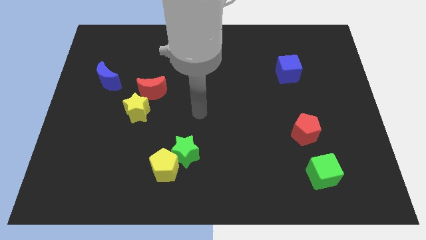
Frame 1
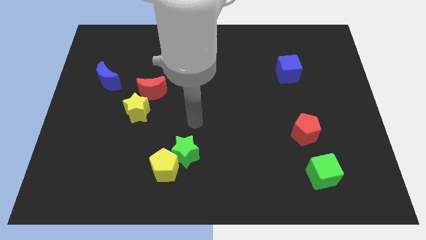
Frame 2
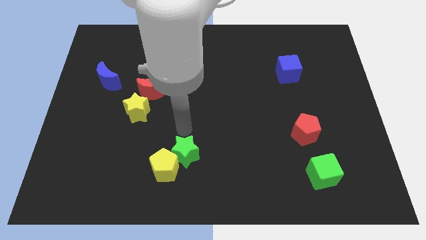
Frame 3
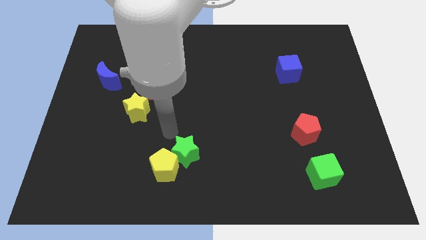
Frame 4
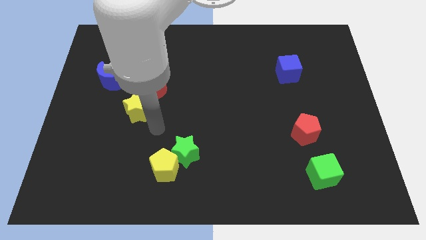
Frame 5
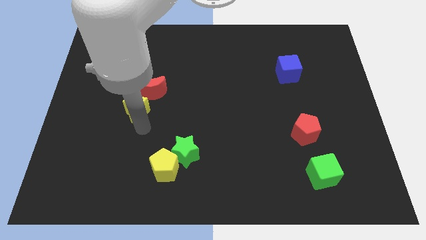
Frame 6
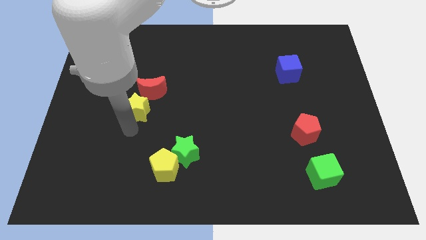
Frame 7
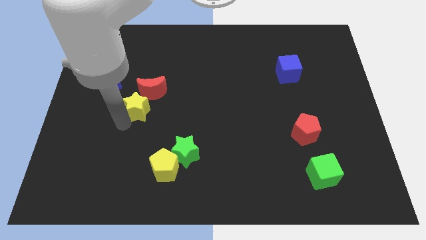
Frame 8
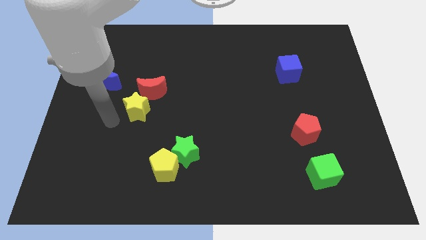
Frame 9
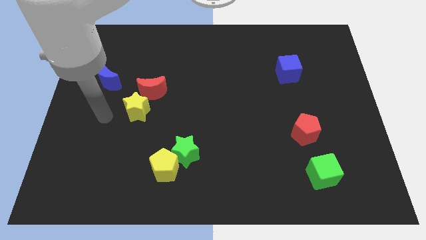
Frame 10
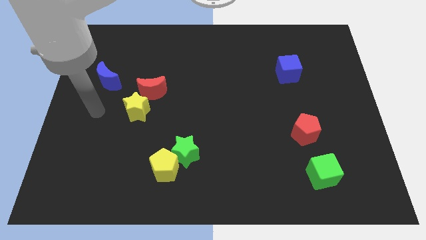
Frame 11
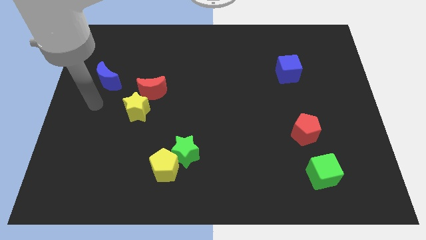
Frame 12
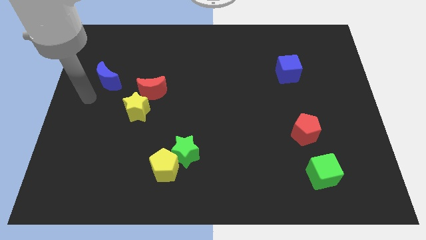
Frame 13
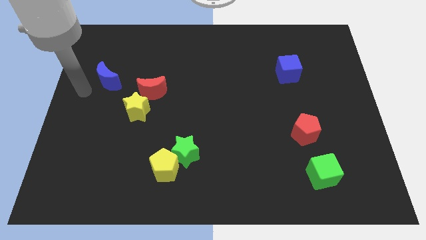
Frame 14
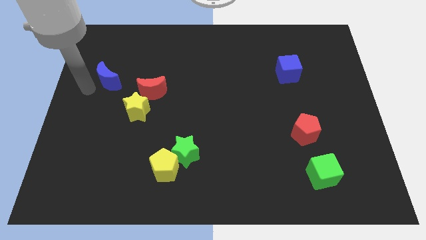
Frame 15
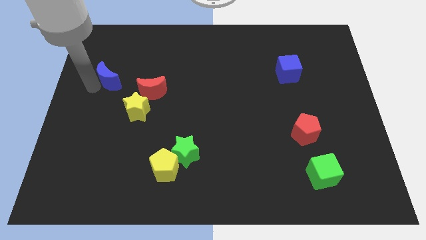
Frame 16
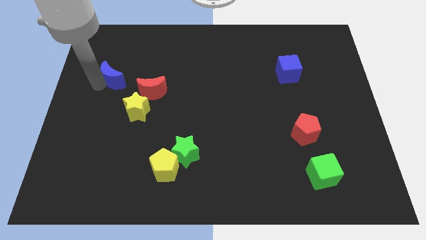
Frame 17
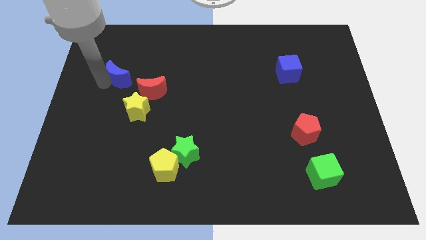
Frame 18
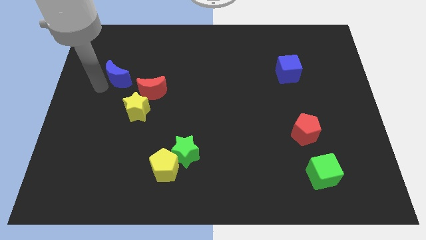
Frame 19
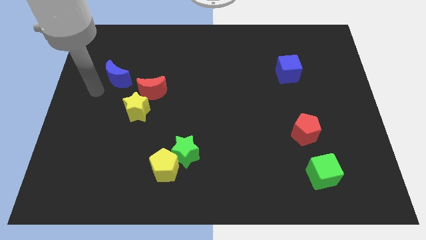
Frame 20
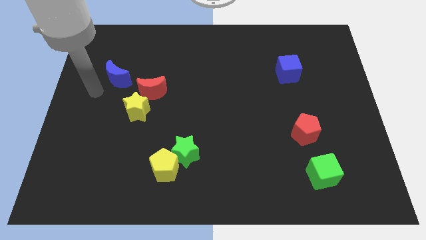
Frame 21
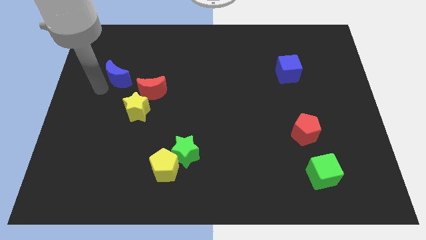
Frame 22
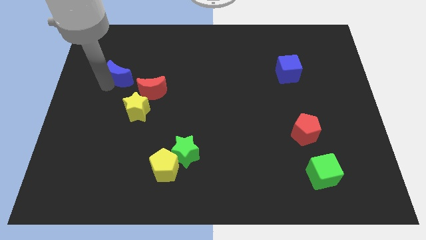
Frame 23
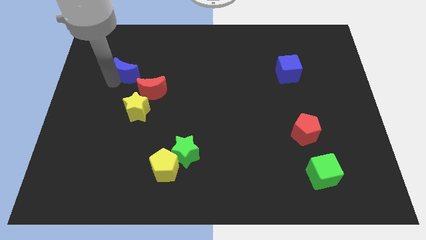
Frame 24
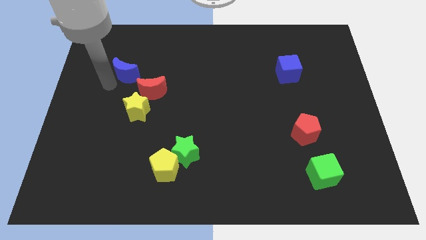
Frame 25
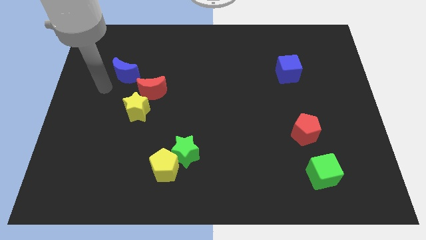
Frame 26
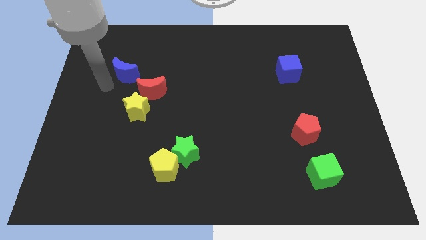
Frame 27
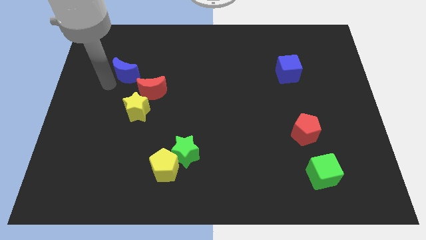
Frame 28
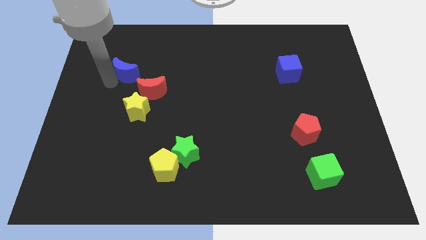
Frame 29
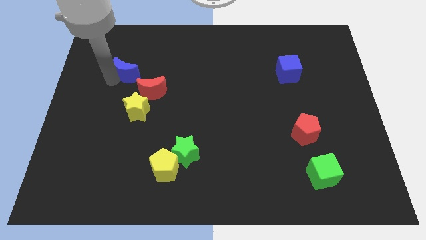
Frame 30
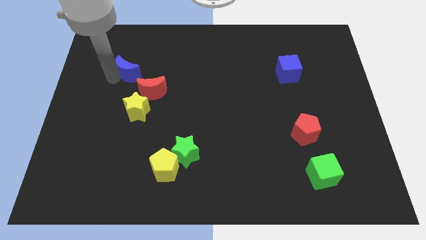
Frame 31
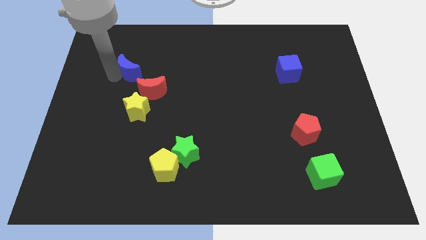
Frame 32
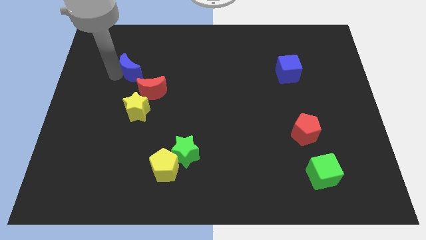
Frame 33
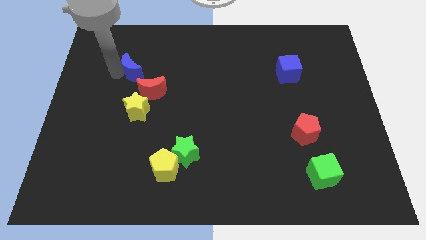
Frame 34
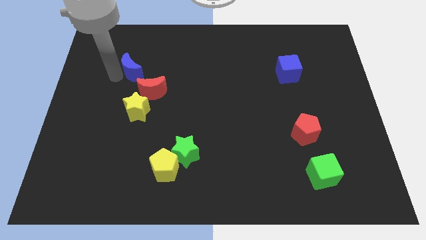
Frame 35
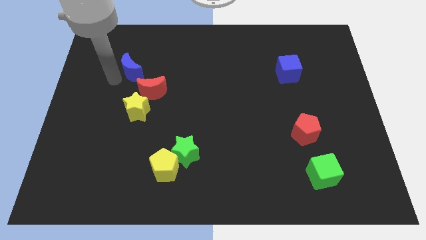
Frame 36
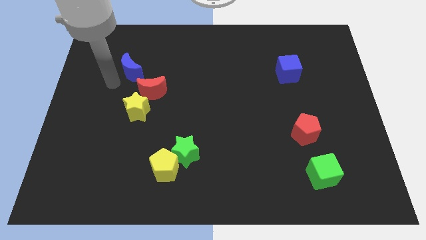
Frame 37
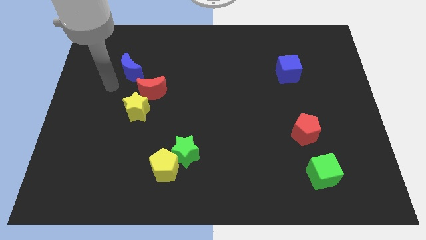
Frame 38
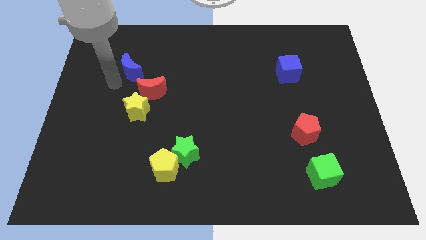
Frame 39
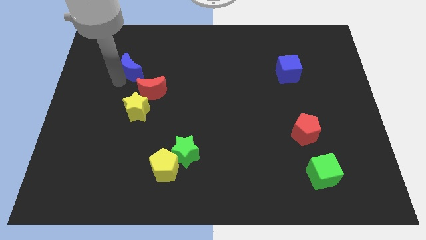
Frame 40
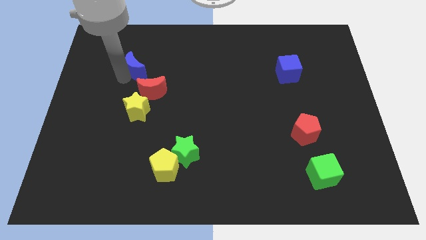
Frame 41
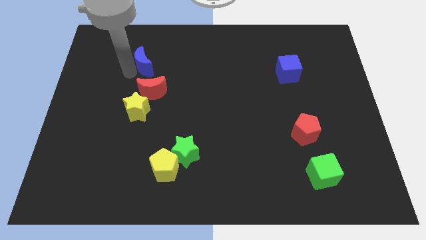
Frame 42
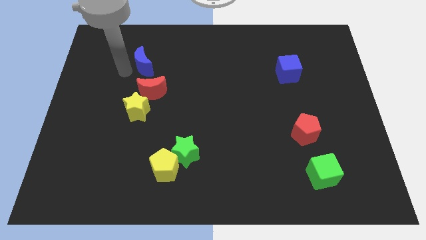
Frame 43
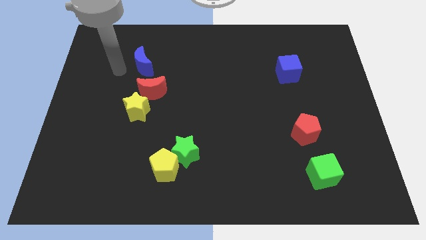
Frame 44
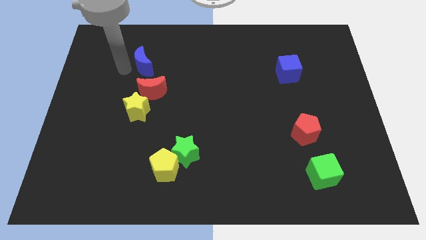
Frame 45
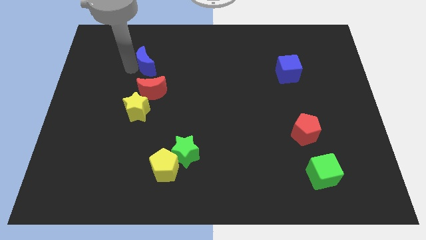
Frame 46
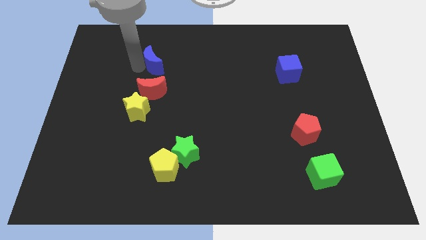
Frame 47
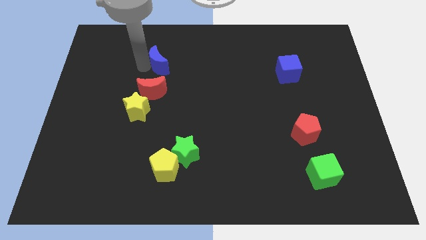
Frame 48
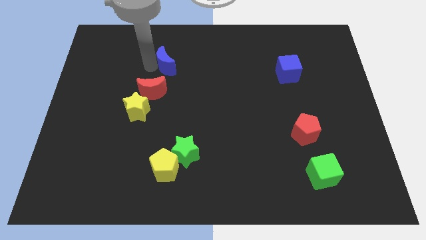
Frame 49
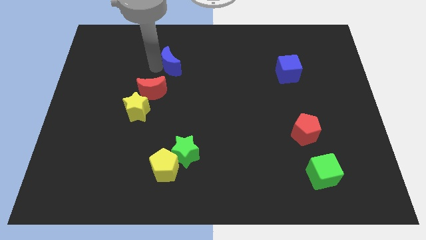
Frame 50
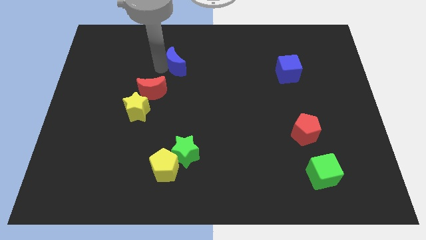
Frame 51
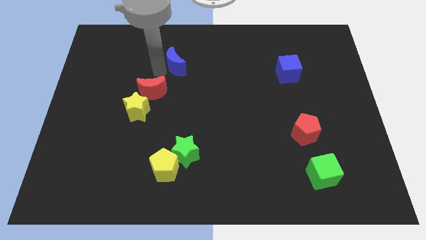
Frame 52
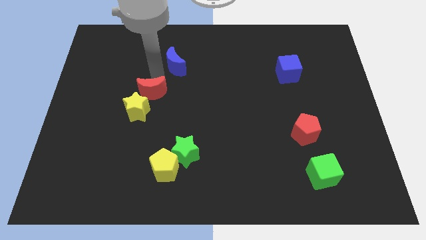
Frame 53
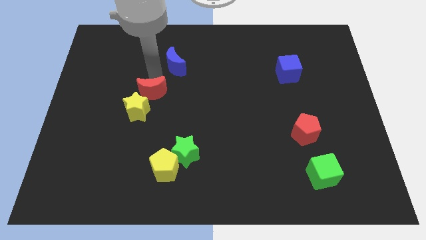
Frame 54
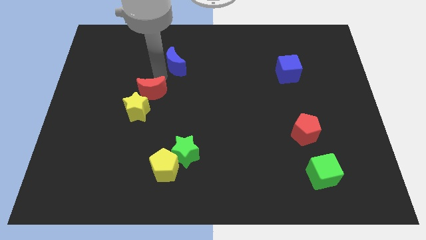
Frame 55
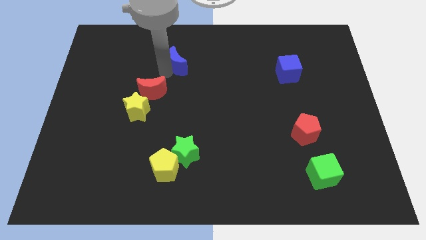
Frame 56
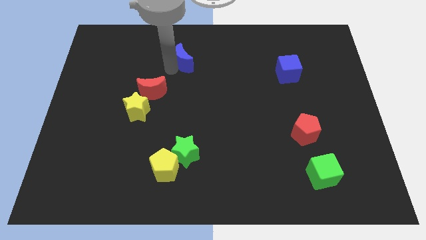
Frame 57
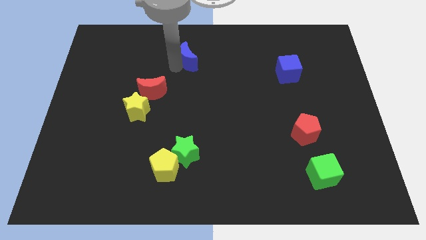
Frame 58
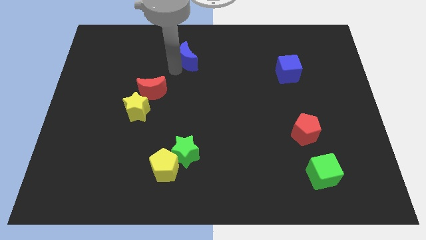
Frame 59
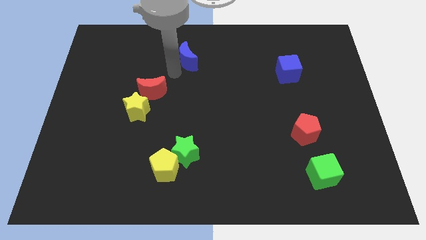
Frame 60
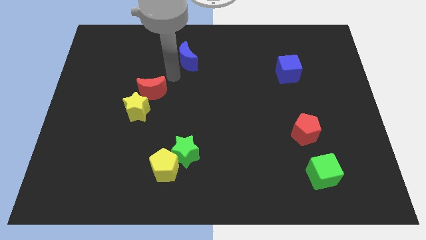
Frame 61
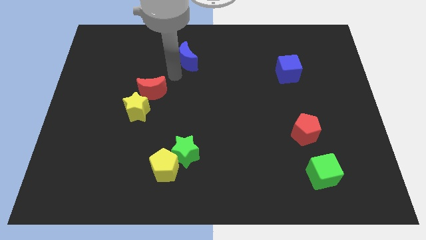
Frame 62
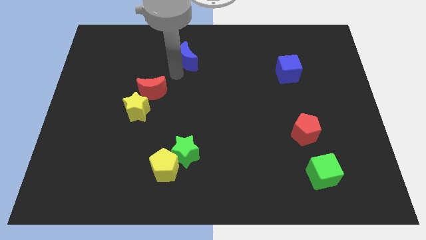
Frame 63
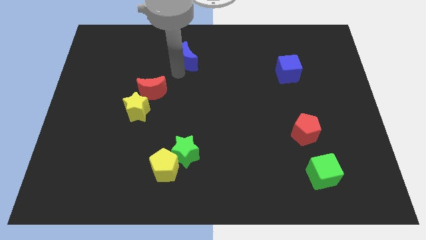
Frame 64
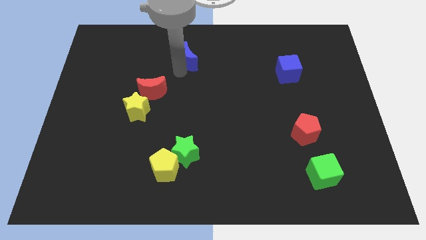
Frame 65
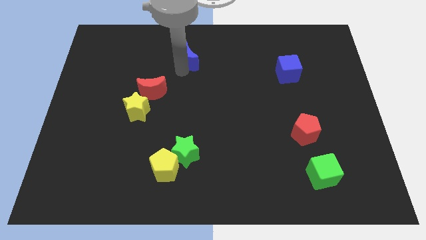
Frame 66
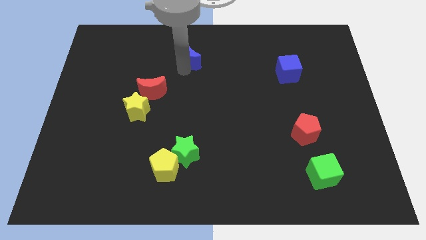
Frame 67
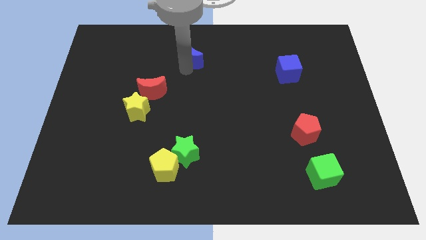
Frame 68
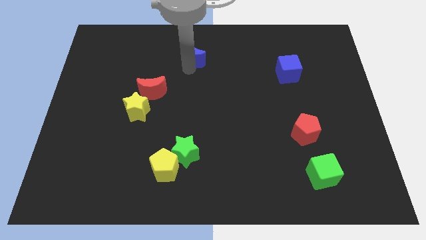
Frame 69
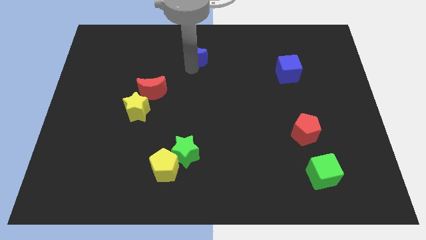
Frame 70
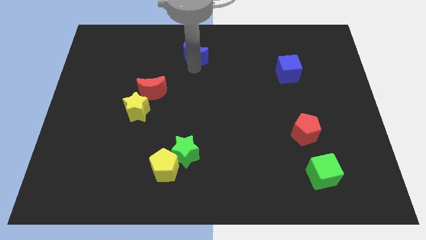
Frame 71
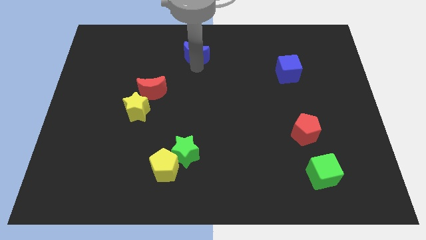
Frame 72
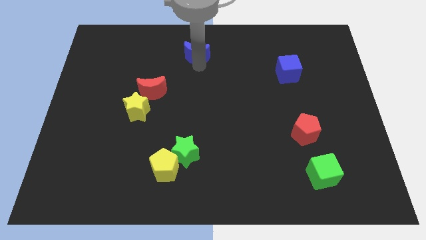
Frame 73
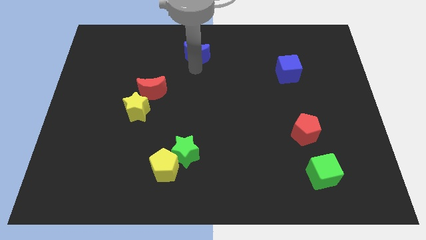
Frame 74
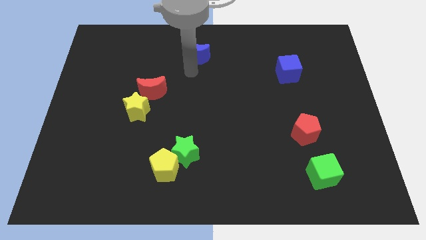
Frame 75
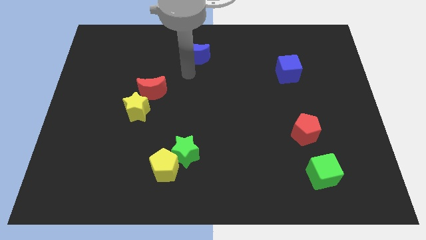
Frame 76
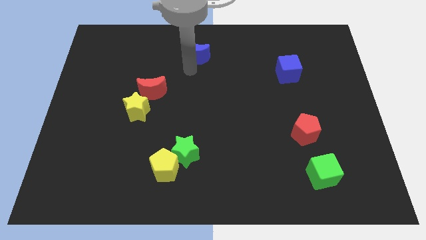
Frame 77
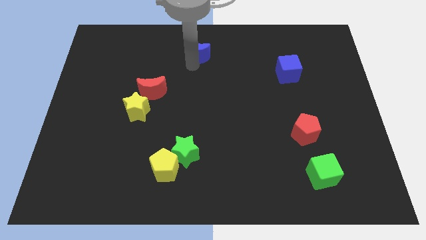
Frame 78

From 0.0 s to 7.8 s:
move the blue moon to the top
